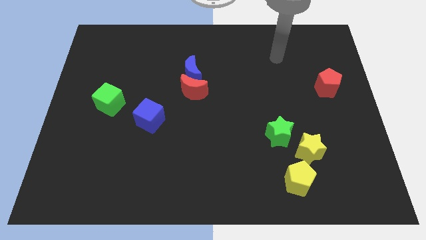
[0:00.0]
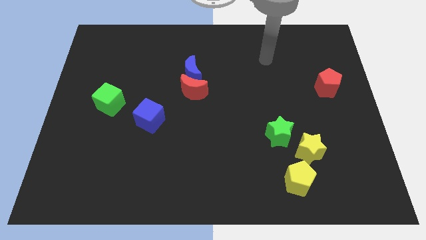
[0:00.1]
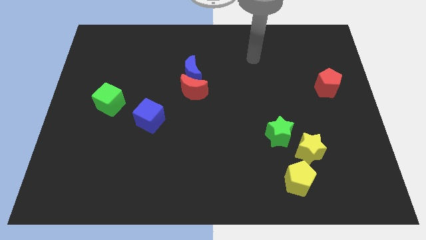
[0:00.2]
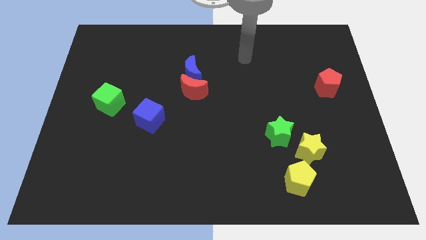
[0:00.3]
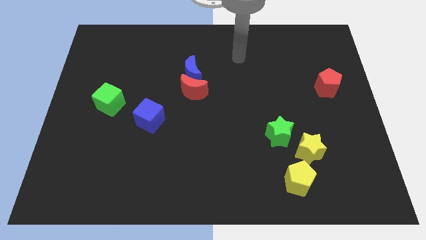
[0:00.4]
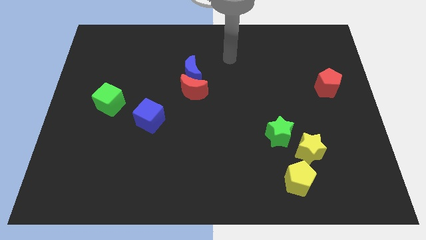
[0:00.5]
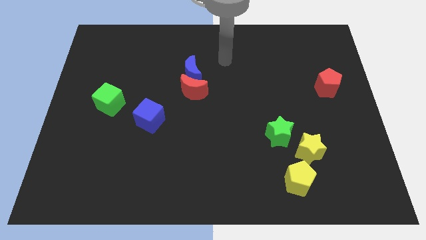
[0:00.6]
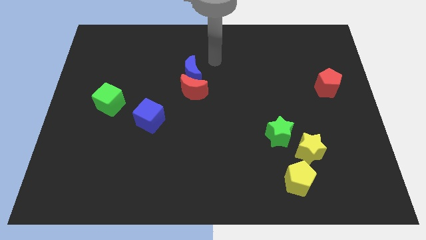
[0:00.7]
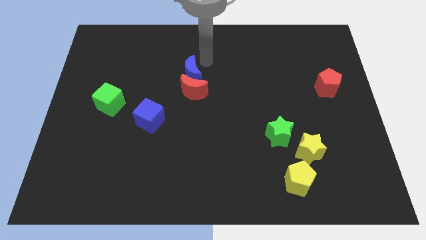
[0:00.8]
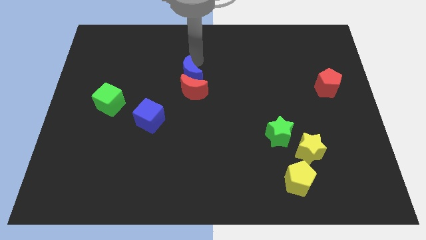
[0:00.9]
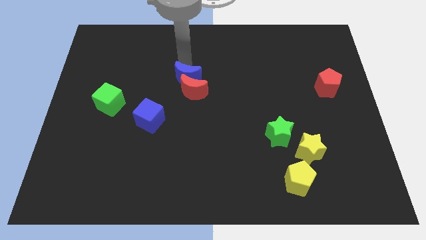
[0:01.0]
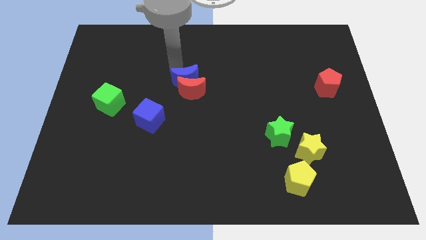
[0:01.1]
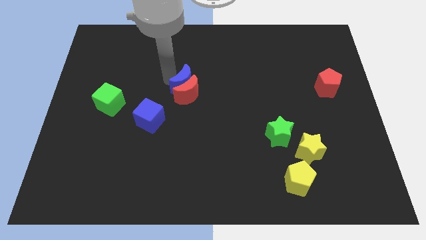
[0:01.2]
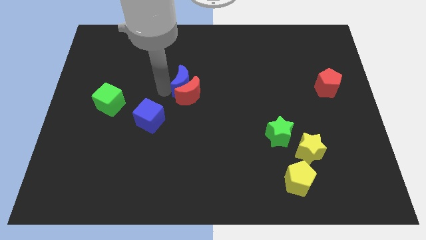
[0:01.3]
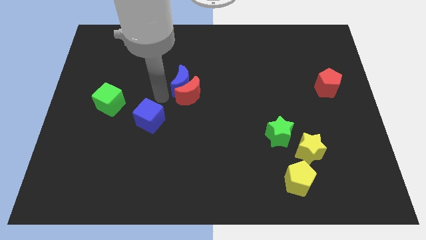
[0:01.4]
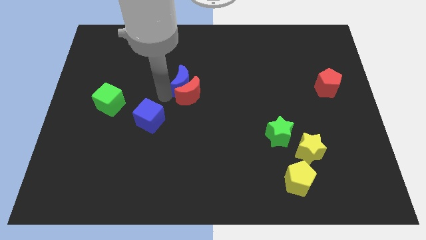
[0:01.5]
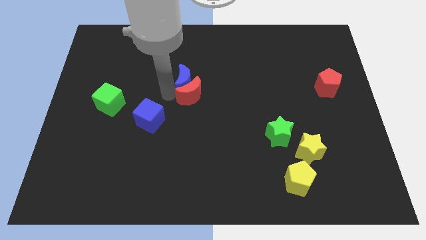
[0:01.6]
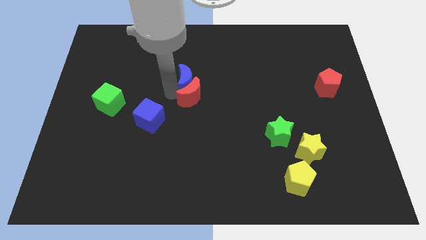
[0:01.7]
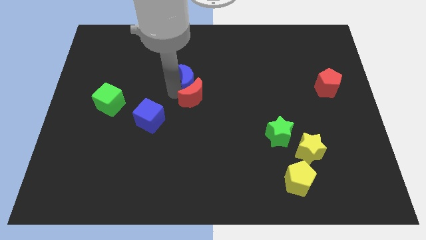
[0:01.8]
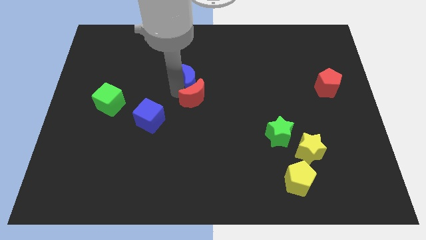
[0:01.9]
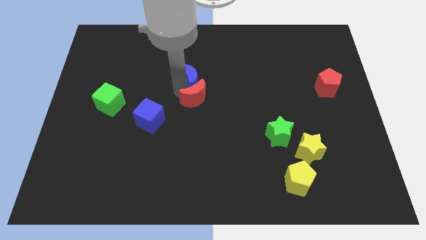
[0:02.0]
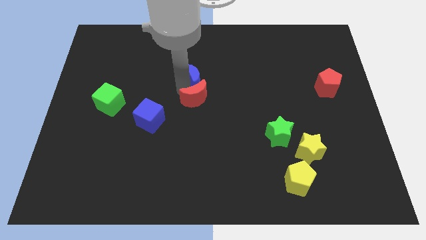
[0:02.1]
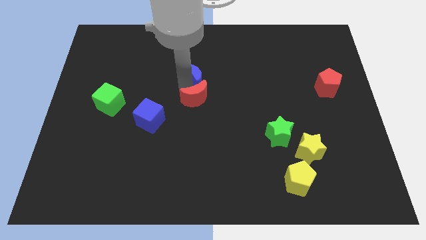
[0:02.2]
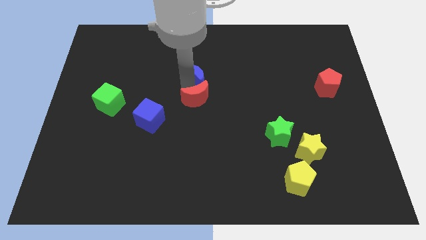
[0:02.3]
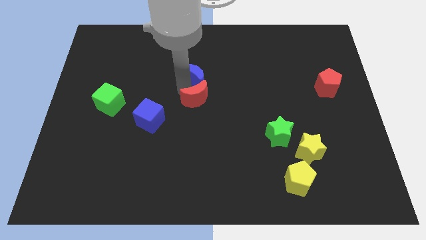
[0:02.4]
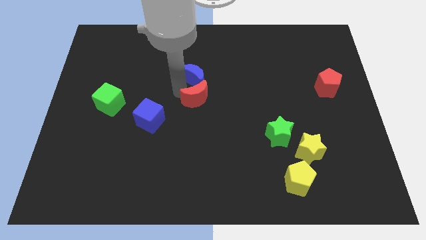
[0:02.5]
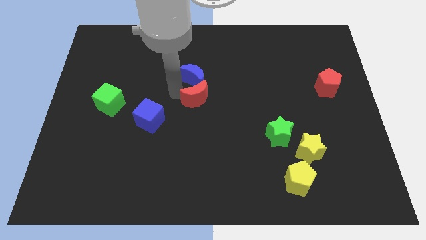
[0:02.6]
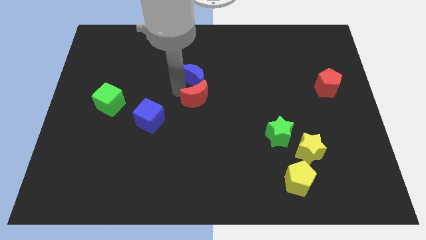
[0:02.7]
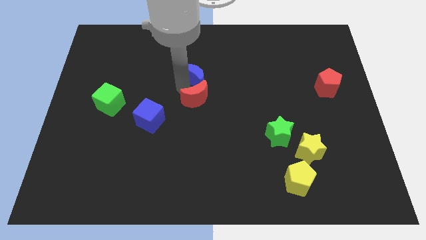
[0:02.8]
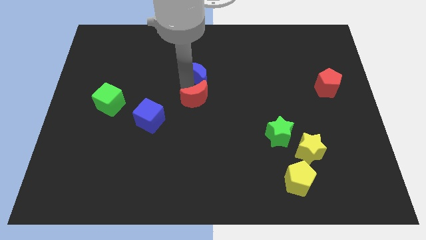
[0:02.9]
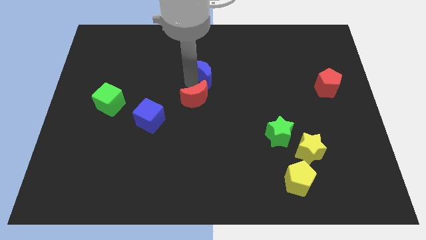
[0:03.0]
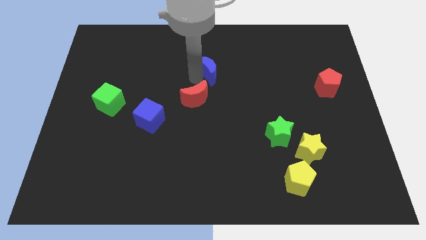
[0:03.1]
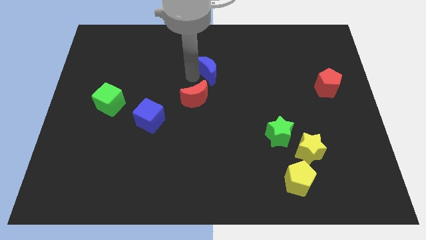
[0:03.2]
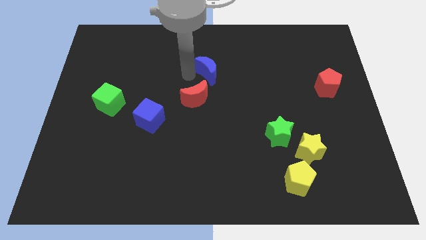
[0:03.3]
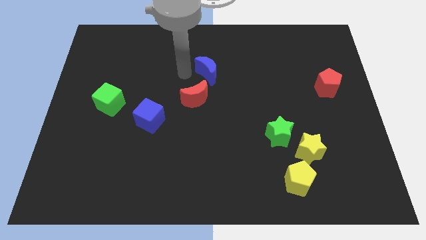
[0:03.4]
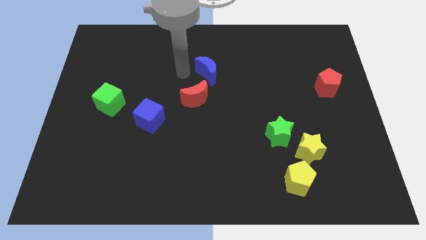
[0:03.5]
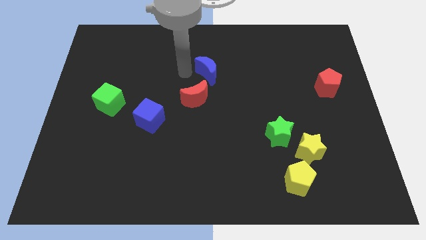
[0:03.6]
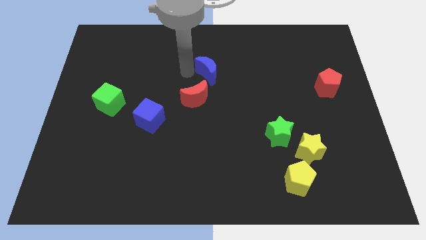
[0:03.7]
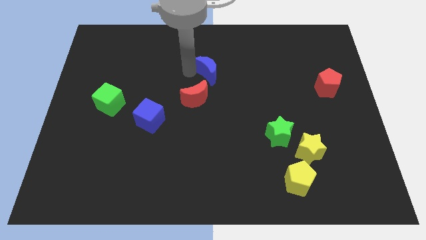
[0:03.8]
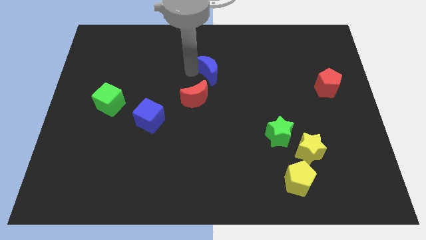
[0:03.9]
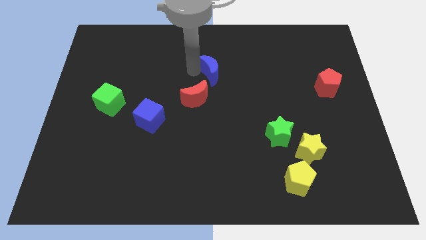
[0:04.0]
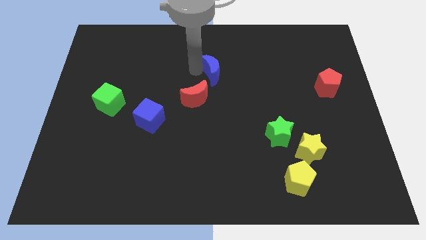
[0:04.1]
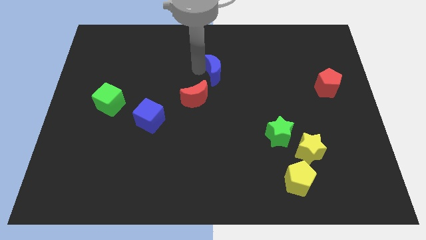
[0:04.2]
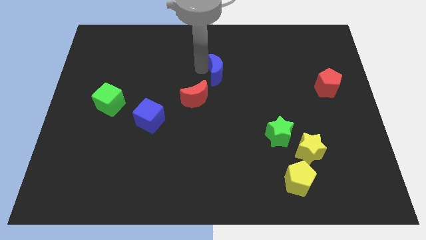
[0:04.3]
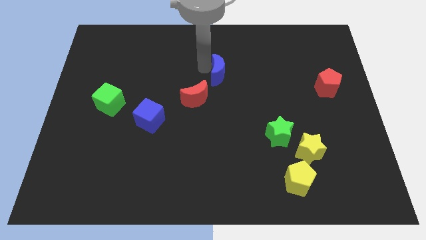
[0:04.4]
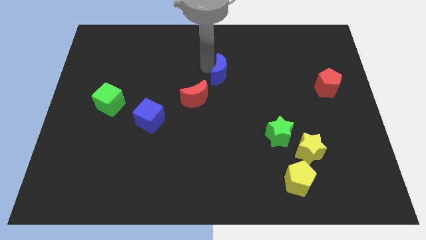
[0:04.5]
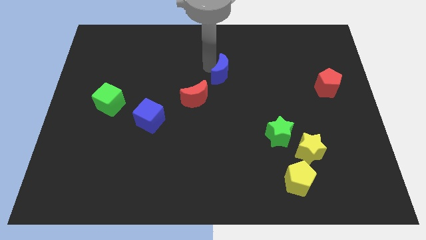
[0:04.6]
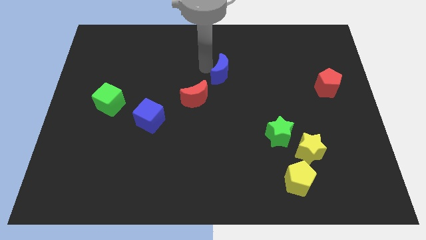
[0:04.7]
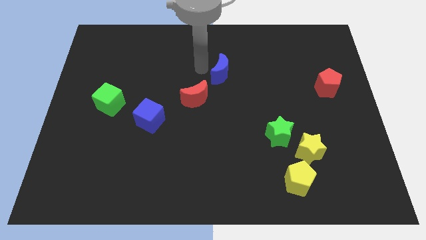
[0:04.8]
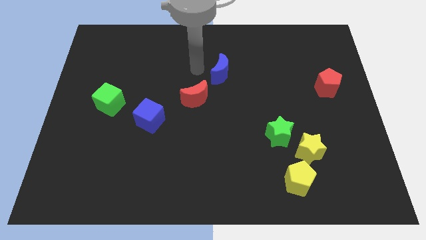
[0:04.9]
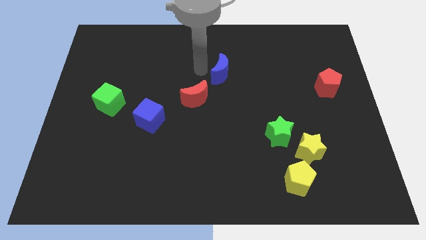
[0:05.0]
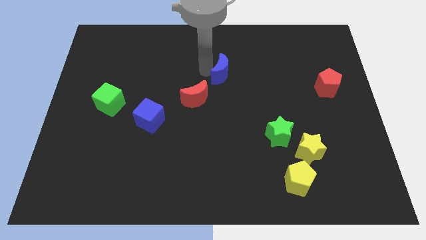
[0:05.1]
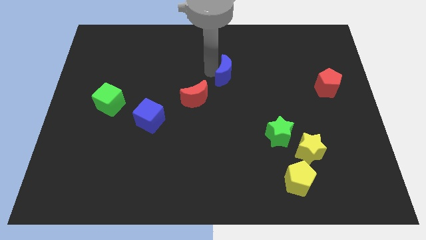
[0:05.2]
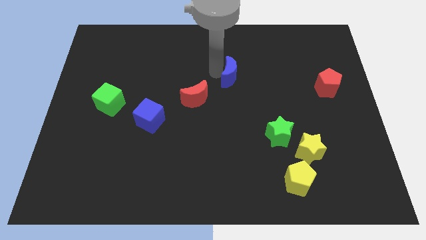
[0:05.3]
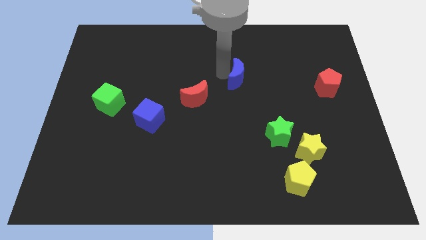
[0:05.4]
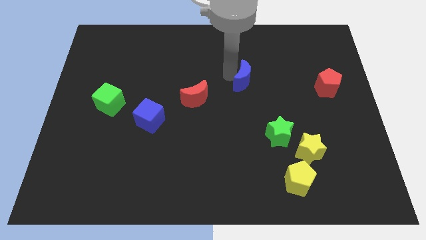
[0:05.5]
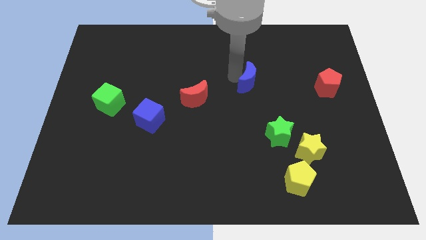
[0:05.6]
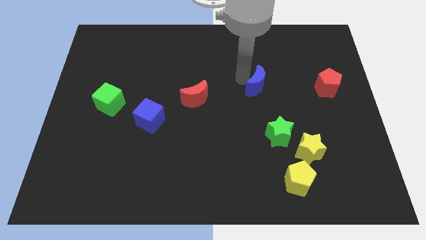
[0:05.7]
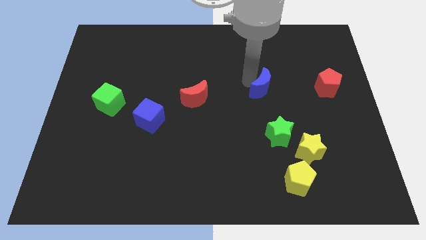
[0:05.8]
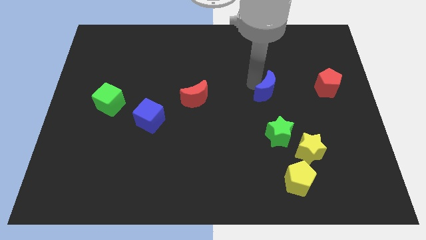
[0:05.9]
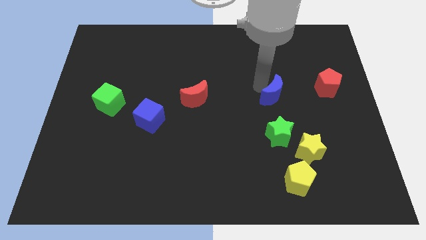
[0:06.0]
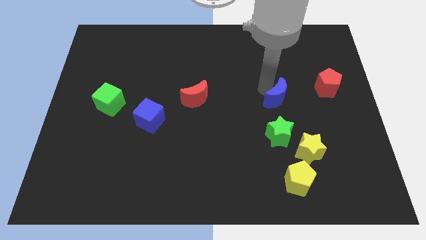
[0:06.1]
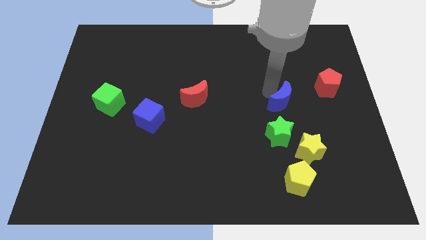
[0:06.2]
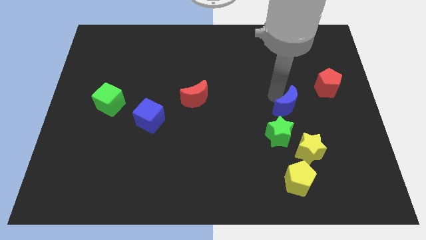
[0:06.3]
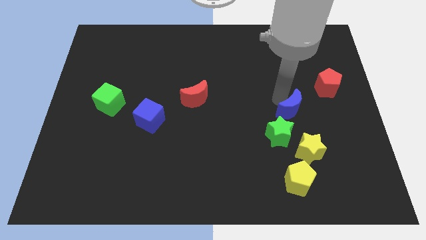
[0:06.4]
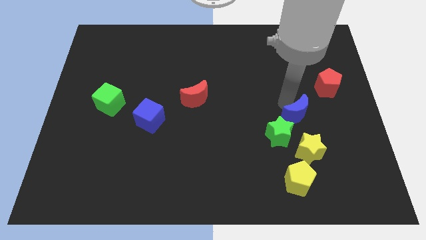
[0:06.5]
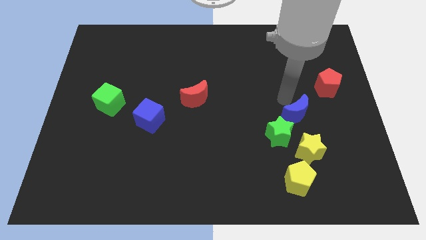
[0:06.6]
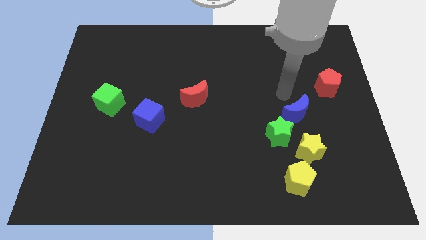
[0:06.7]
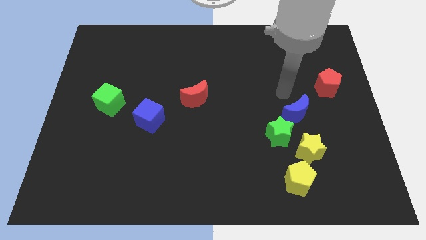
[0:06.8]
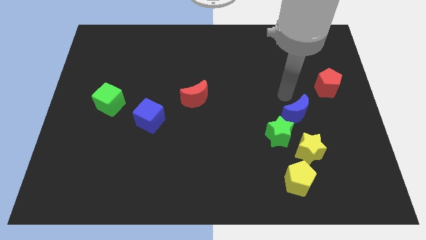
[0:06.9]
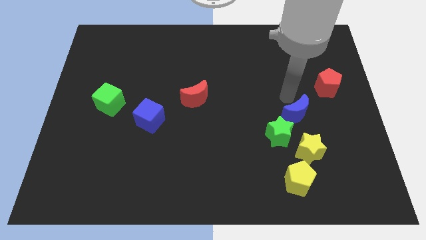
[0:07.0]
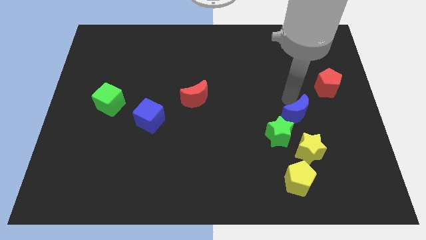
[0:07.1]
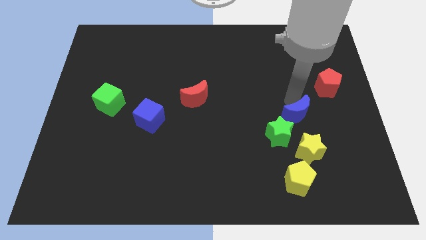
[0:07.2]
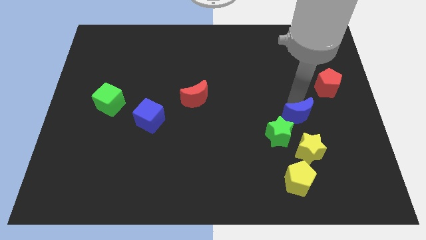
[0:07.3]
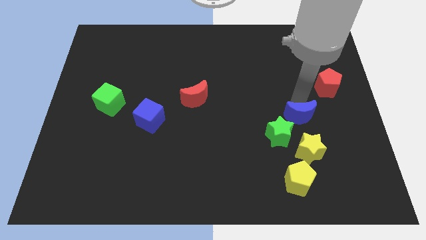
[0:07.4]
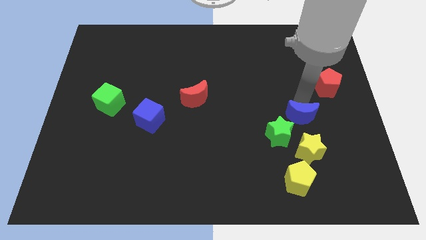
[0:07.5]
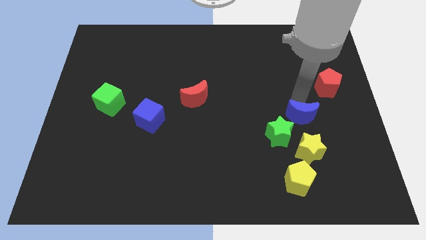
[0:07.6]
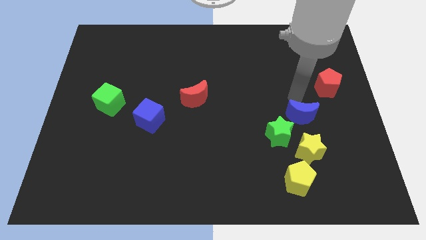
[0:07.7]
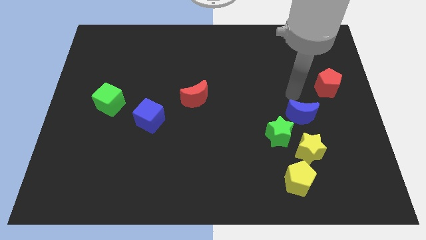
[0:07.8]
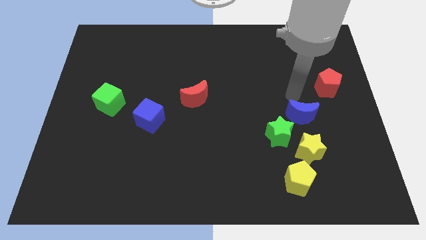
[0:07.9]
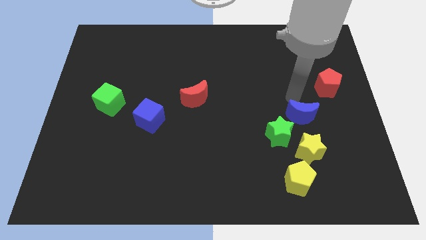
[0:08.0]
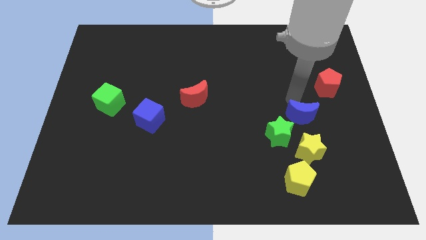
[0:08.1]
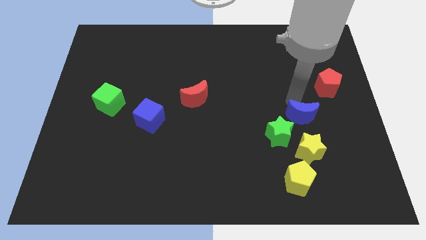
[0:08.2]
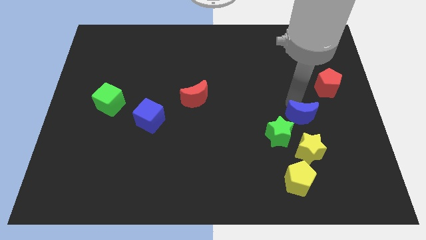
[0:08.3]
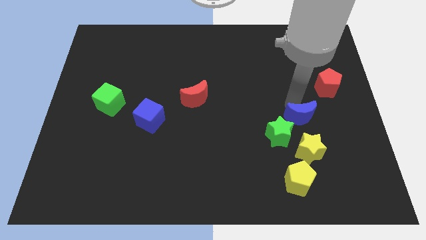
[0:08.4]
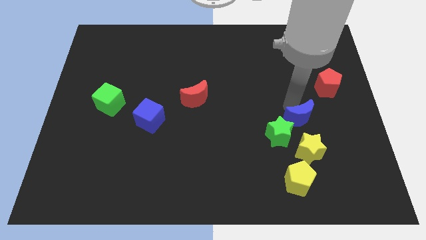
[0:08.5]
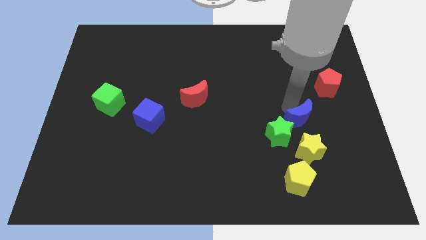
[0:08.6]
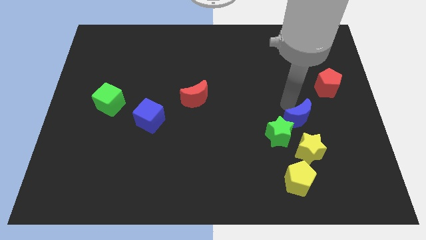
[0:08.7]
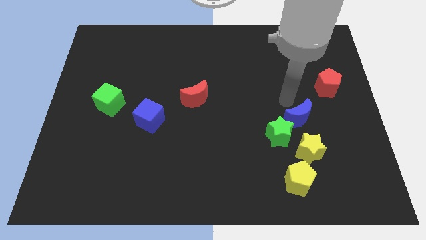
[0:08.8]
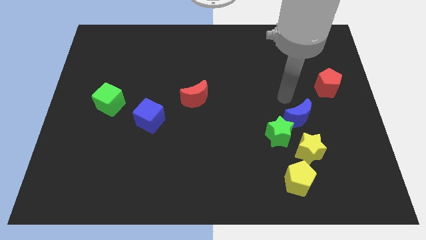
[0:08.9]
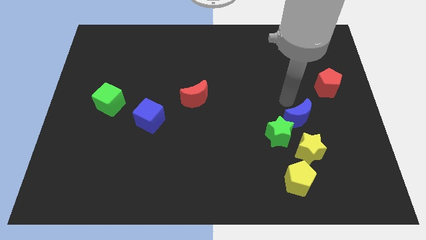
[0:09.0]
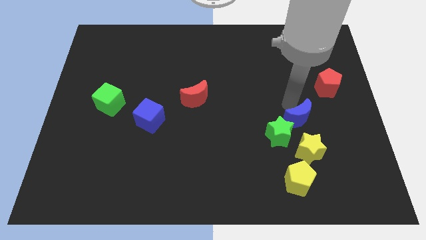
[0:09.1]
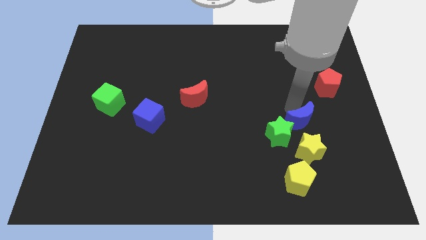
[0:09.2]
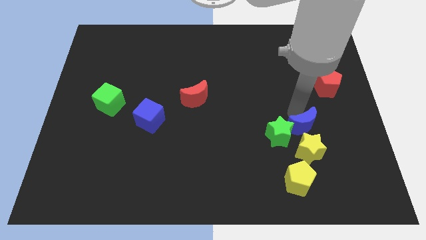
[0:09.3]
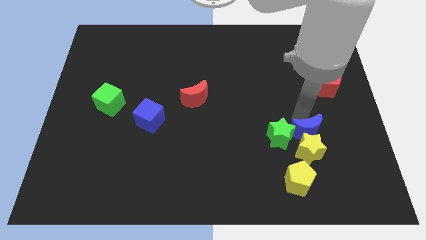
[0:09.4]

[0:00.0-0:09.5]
put the blue moon to the yellow star
